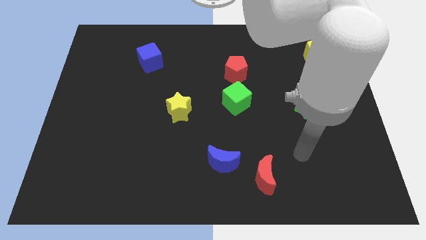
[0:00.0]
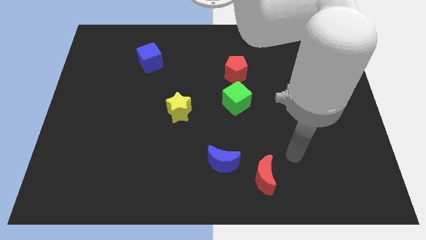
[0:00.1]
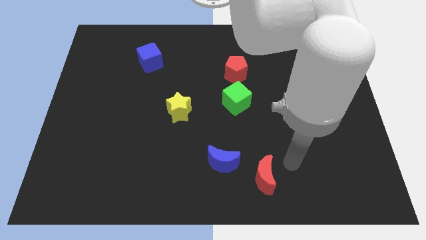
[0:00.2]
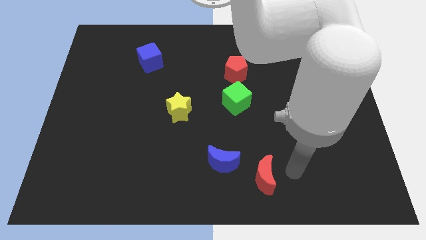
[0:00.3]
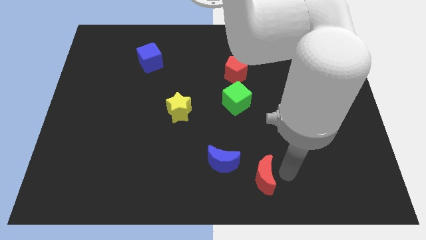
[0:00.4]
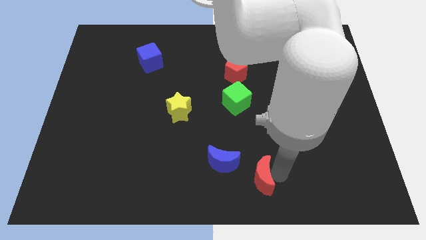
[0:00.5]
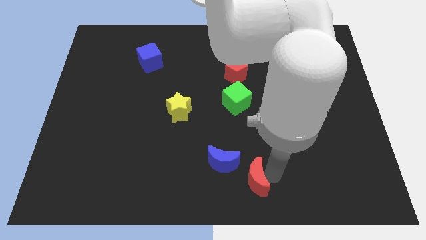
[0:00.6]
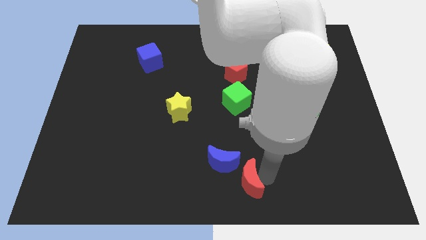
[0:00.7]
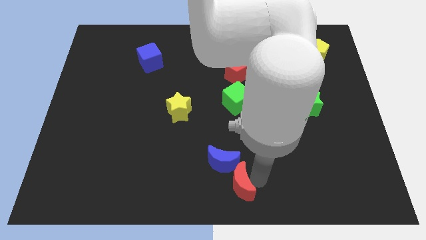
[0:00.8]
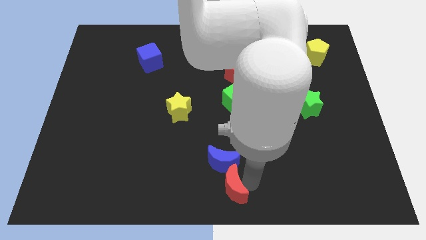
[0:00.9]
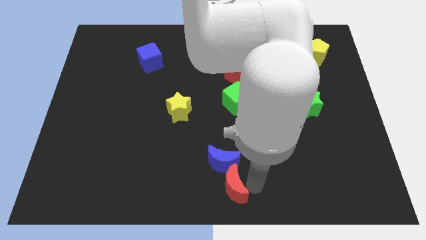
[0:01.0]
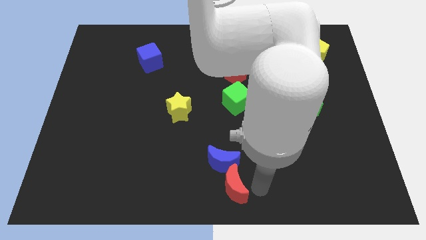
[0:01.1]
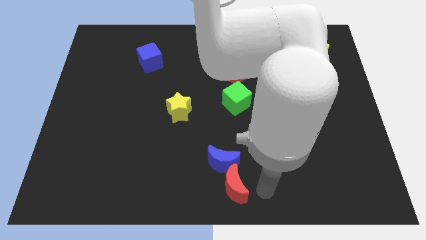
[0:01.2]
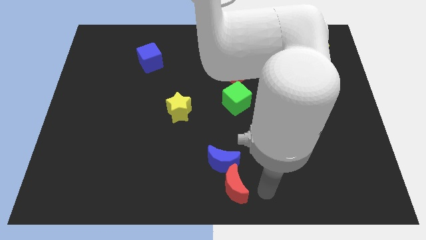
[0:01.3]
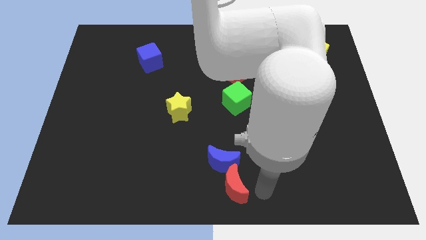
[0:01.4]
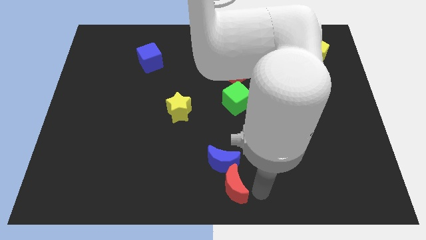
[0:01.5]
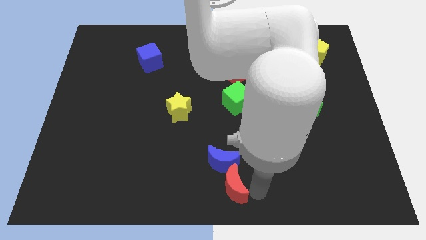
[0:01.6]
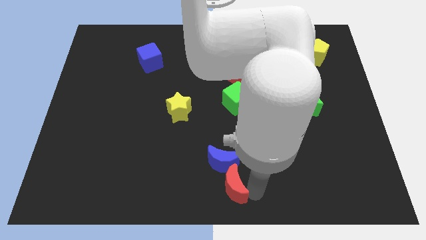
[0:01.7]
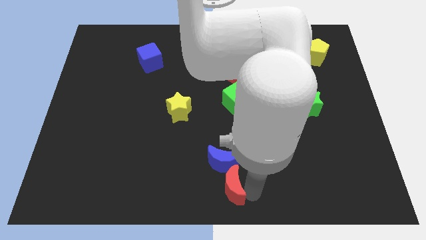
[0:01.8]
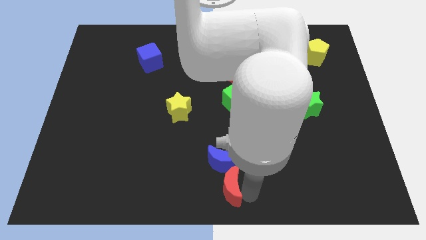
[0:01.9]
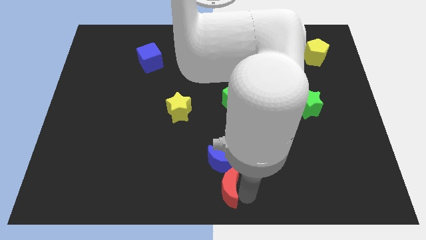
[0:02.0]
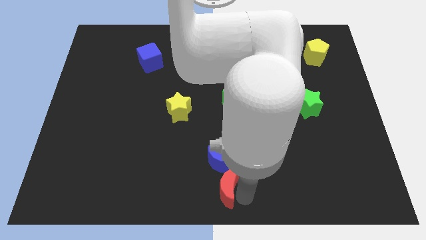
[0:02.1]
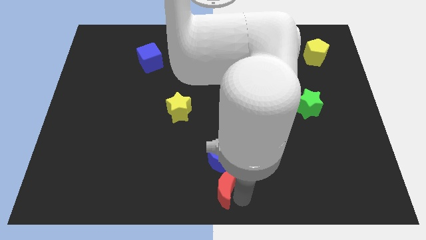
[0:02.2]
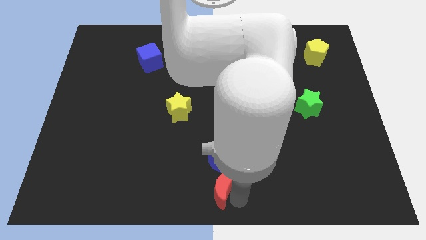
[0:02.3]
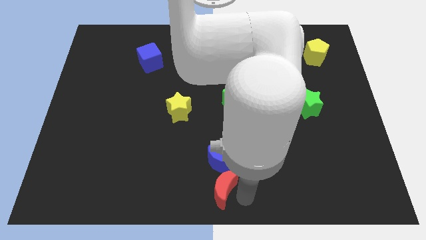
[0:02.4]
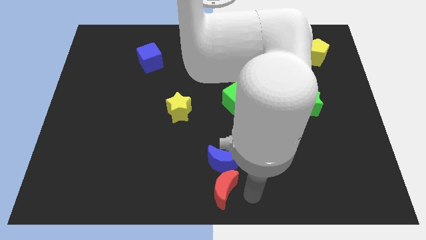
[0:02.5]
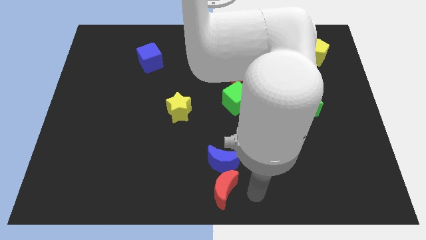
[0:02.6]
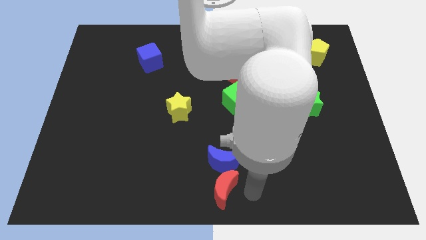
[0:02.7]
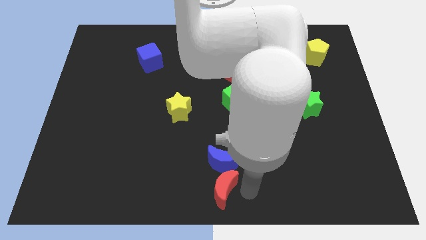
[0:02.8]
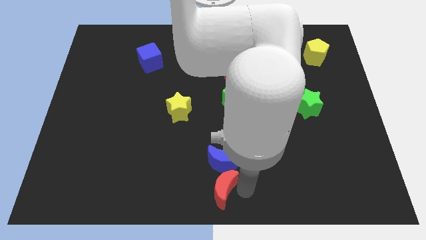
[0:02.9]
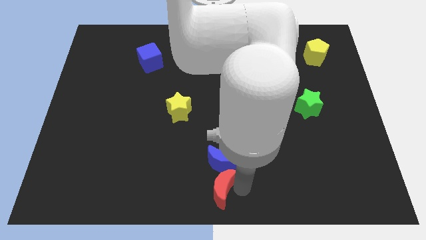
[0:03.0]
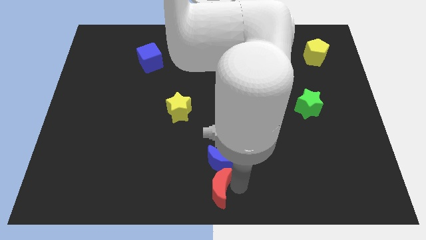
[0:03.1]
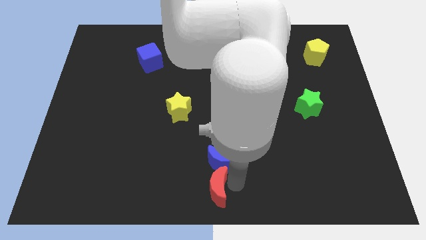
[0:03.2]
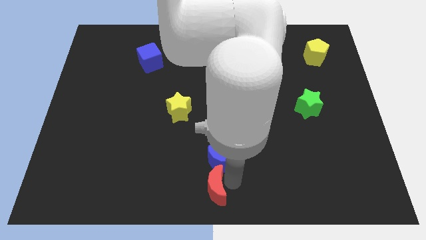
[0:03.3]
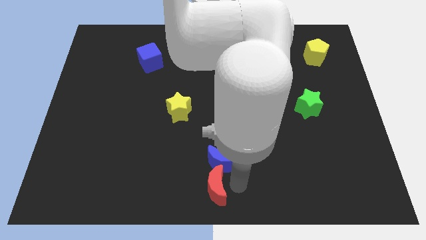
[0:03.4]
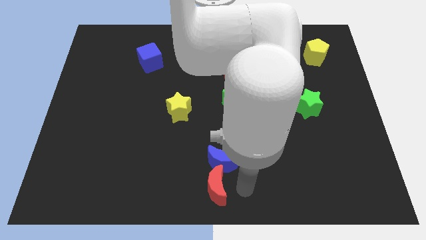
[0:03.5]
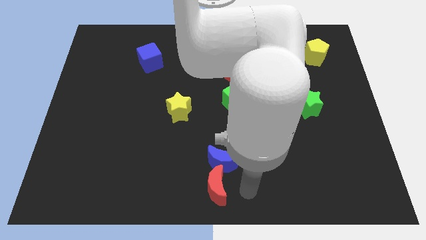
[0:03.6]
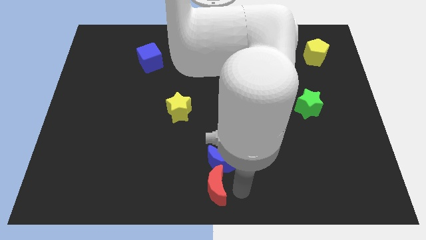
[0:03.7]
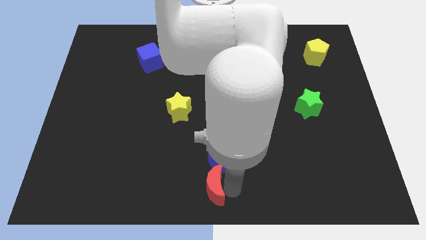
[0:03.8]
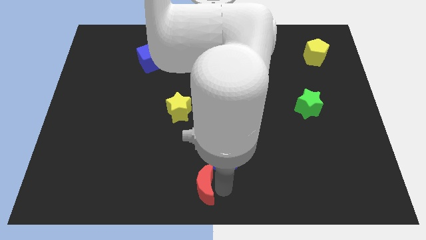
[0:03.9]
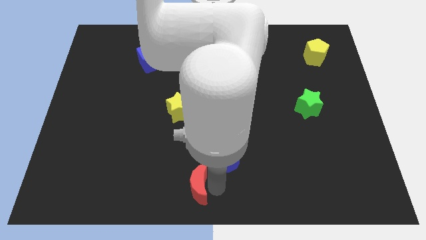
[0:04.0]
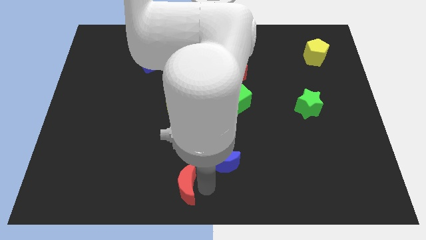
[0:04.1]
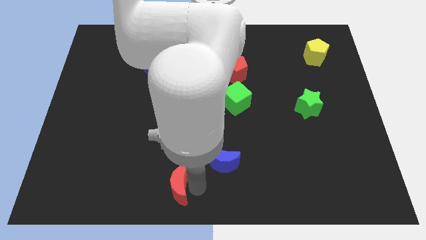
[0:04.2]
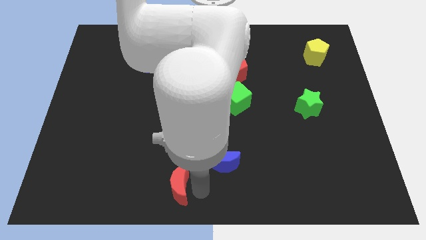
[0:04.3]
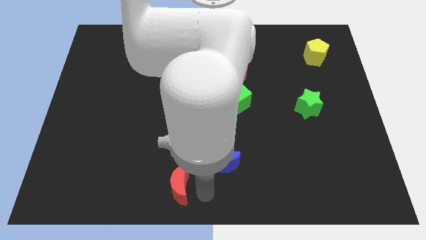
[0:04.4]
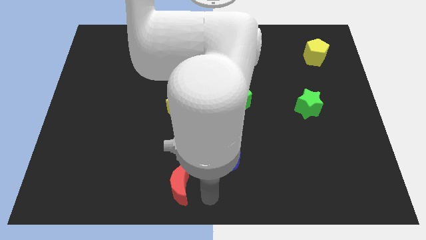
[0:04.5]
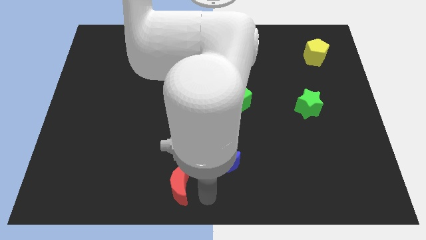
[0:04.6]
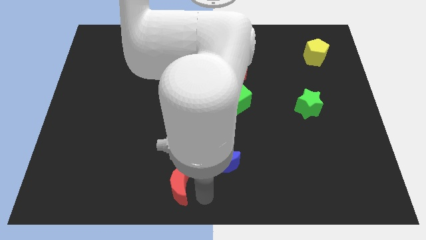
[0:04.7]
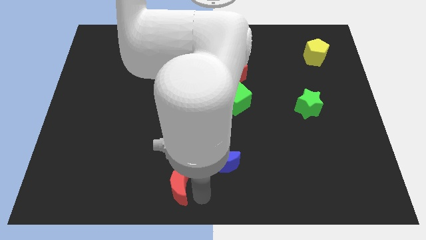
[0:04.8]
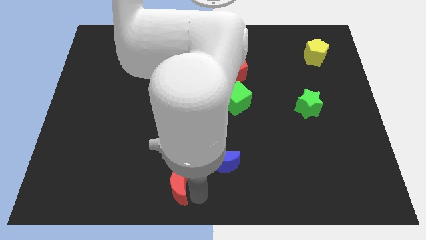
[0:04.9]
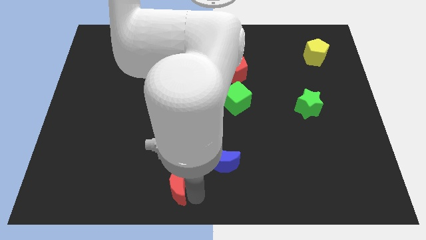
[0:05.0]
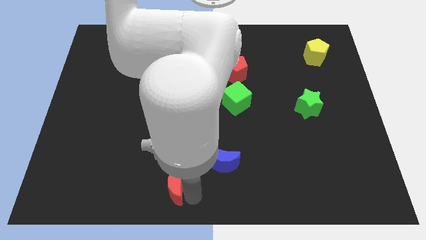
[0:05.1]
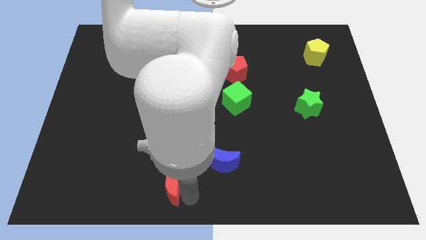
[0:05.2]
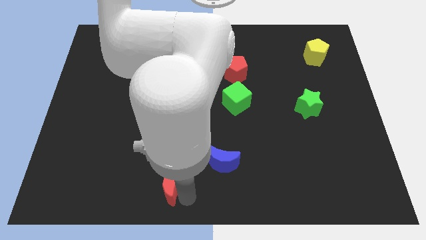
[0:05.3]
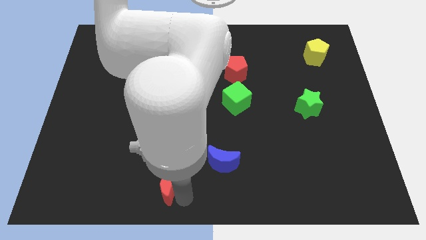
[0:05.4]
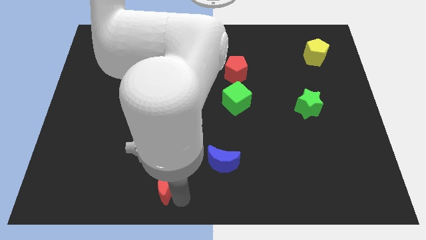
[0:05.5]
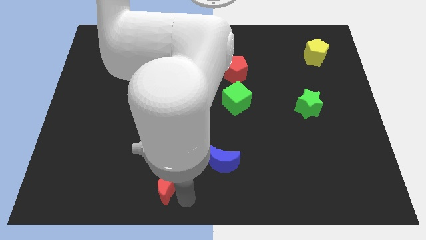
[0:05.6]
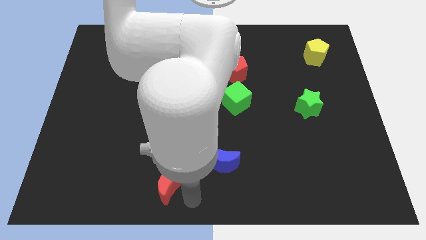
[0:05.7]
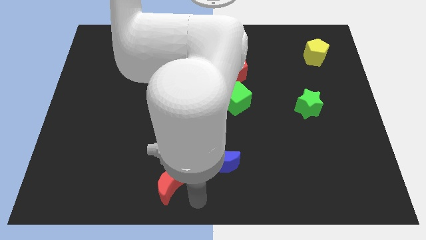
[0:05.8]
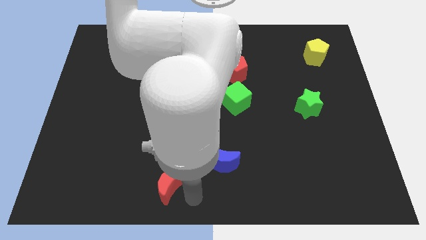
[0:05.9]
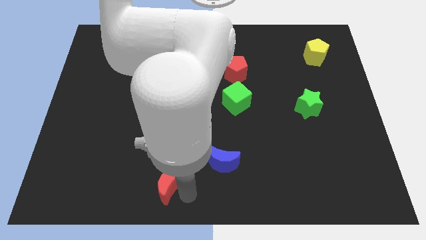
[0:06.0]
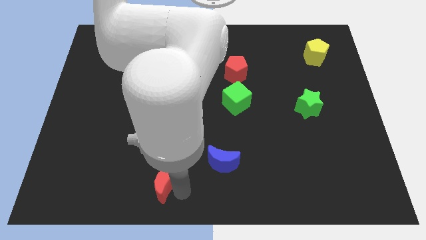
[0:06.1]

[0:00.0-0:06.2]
move the red moon left

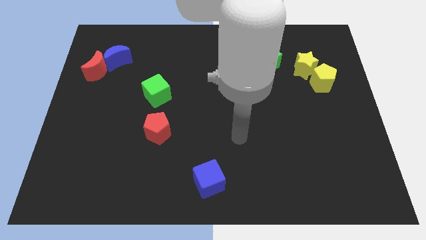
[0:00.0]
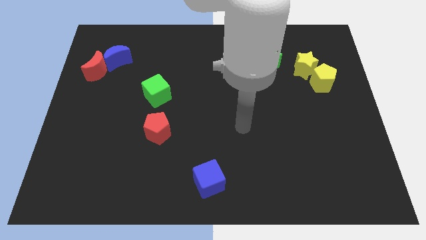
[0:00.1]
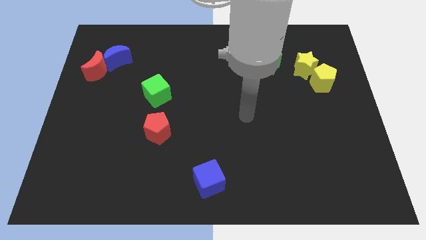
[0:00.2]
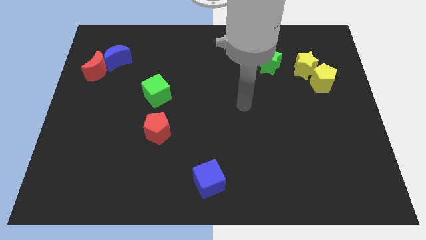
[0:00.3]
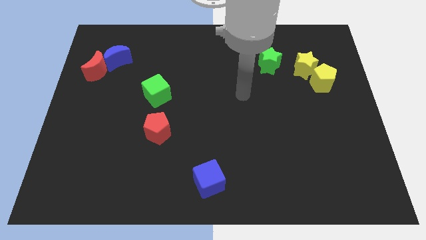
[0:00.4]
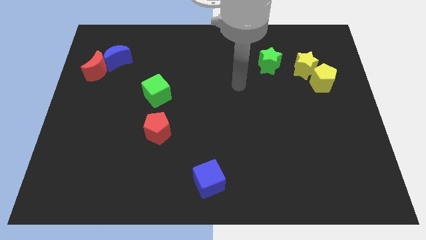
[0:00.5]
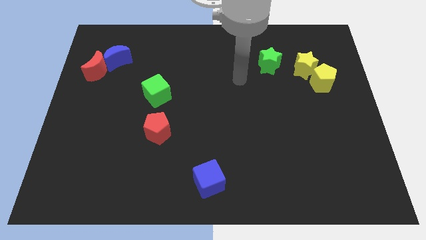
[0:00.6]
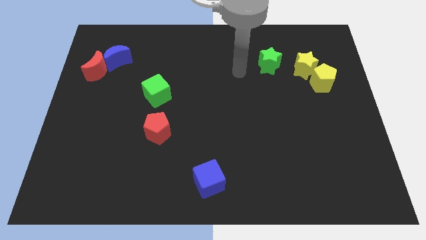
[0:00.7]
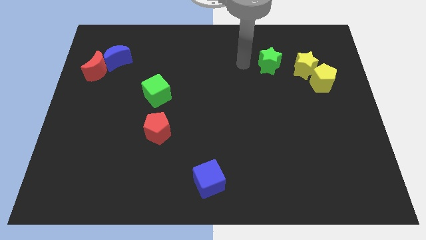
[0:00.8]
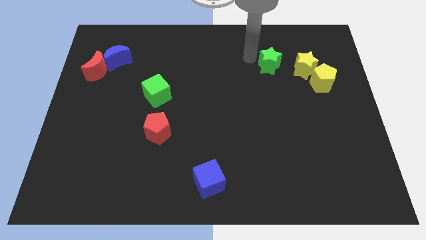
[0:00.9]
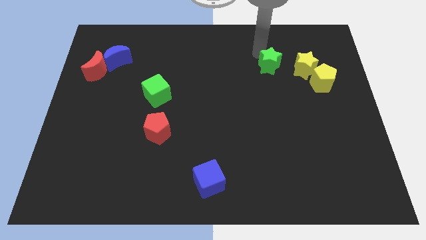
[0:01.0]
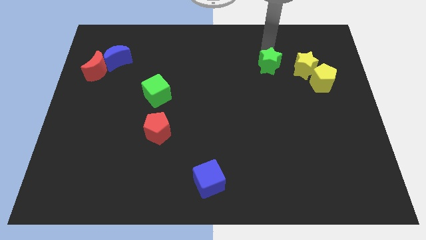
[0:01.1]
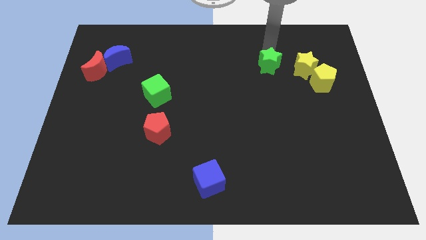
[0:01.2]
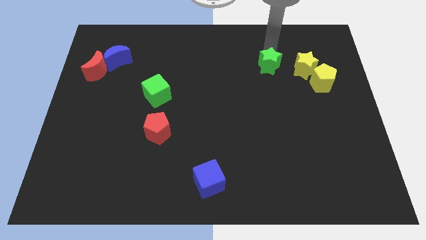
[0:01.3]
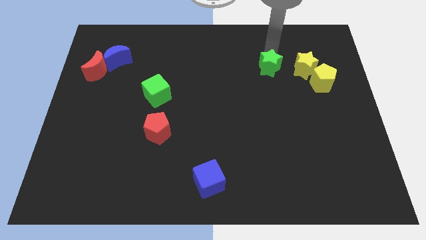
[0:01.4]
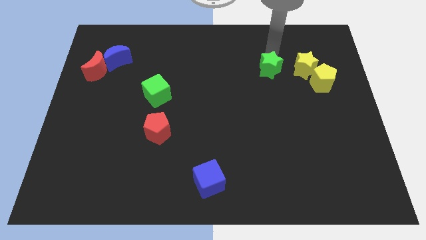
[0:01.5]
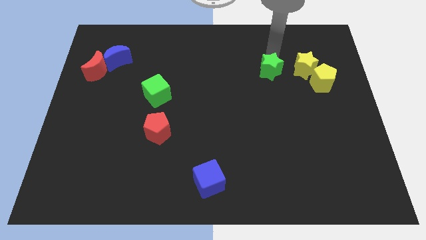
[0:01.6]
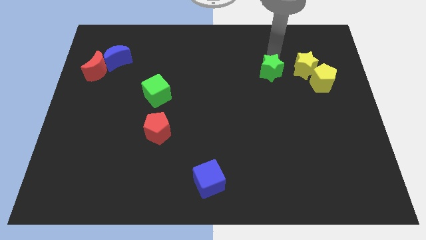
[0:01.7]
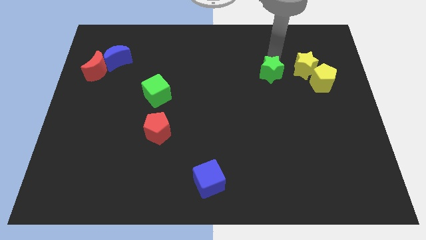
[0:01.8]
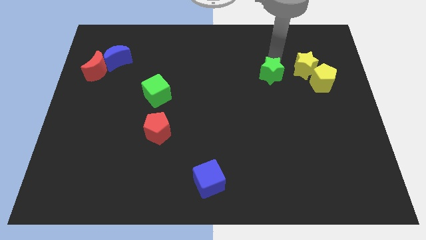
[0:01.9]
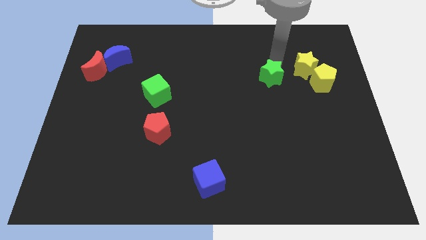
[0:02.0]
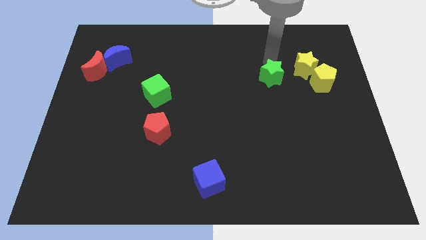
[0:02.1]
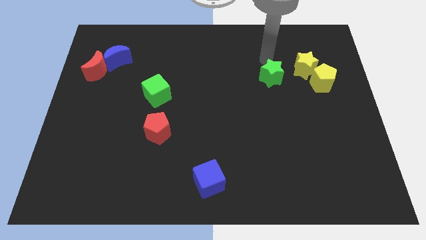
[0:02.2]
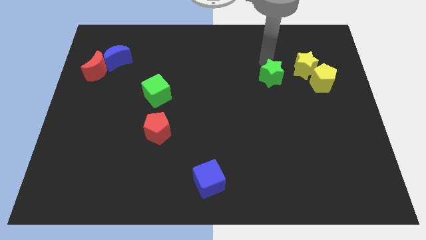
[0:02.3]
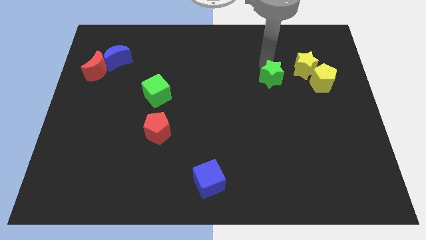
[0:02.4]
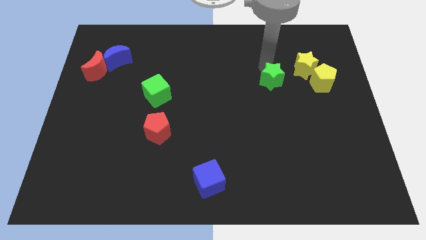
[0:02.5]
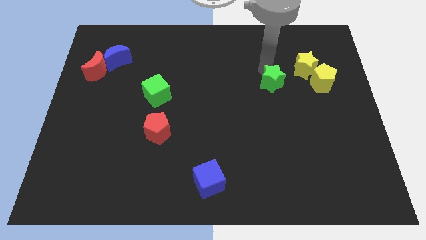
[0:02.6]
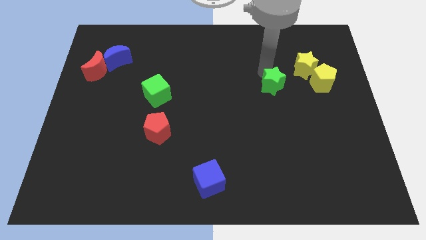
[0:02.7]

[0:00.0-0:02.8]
slightly move the green star downwards
